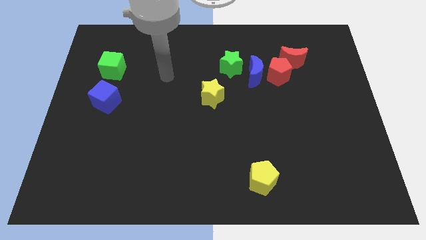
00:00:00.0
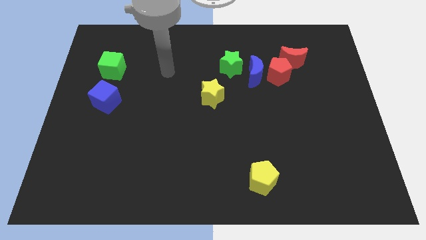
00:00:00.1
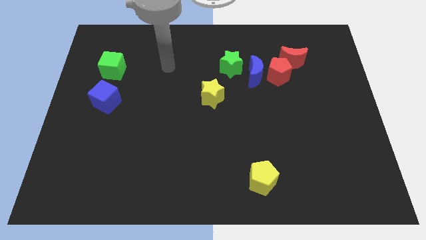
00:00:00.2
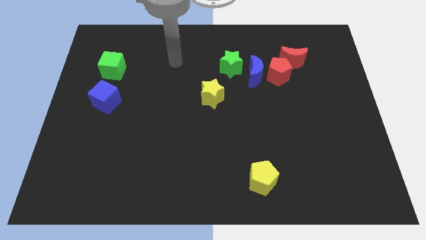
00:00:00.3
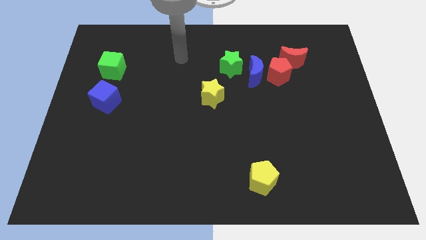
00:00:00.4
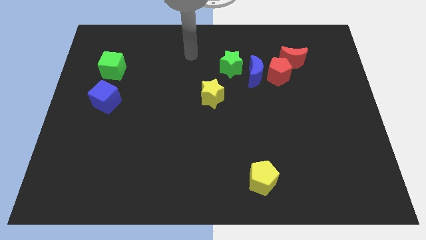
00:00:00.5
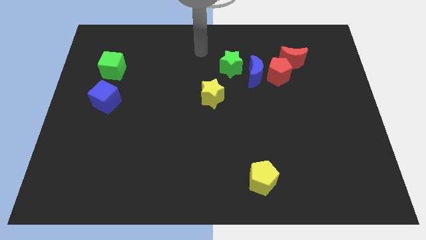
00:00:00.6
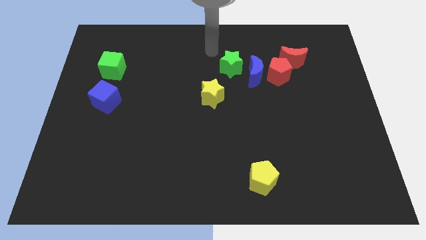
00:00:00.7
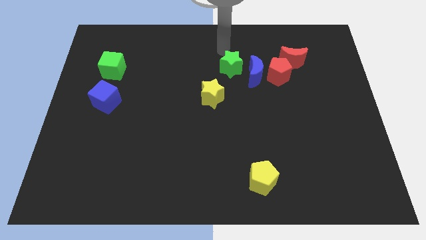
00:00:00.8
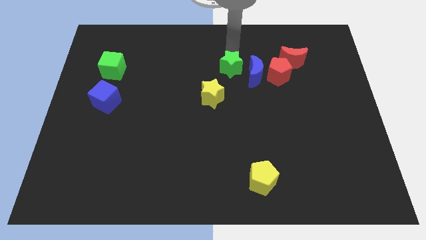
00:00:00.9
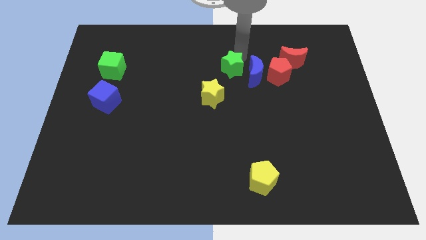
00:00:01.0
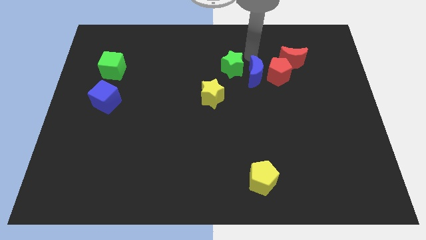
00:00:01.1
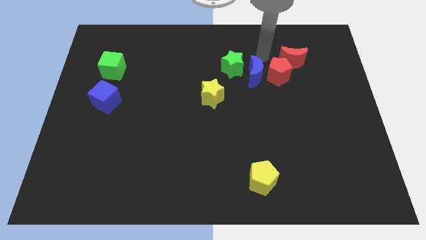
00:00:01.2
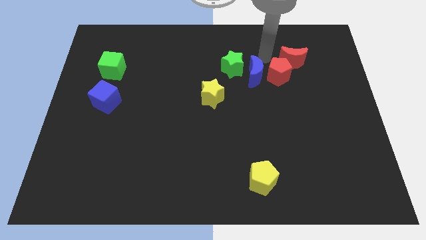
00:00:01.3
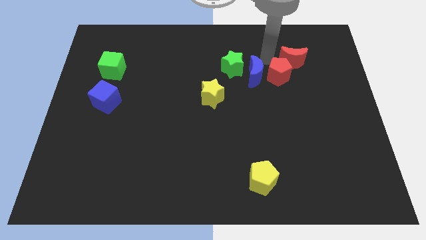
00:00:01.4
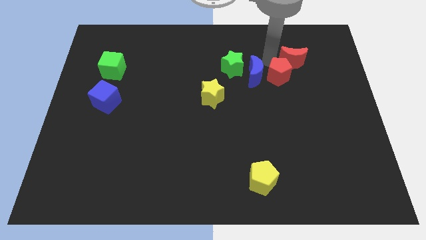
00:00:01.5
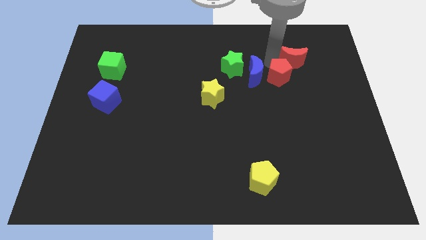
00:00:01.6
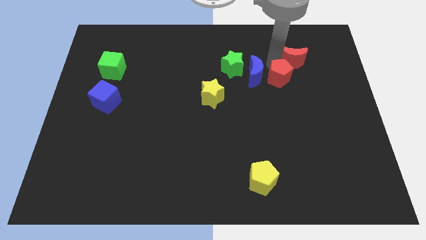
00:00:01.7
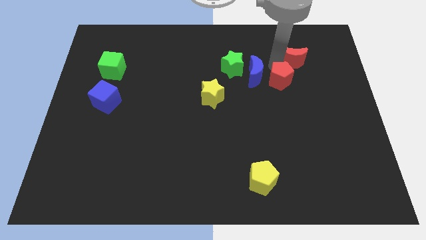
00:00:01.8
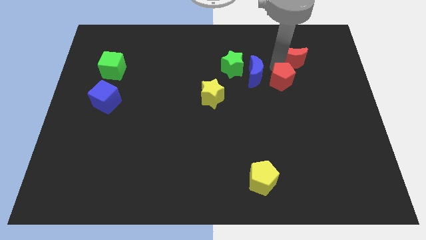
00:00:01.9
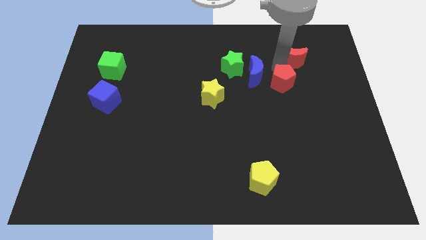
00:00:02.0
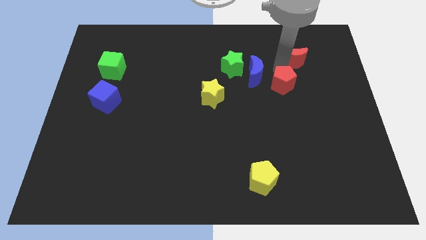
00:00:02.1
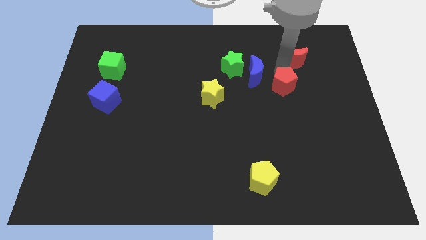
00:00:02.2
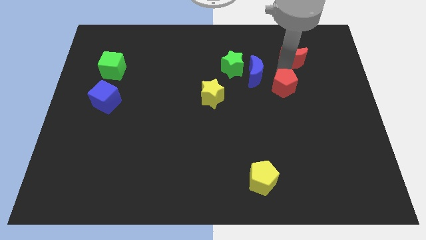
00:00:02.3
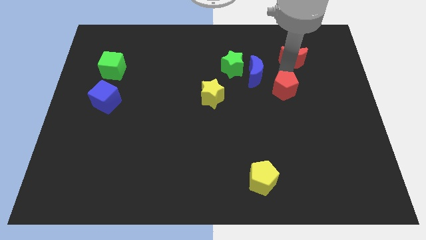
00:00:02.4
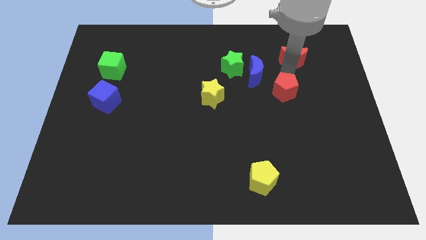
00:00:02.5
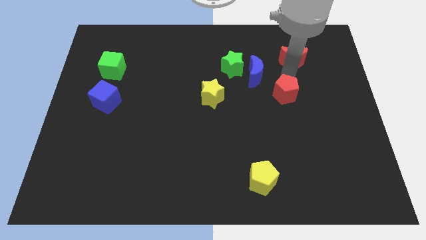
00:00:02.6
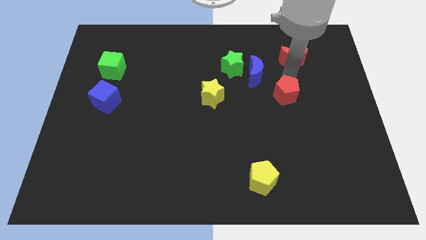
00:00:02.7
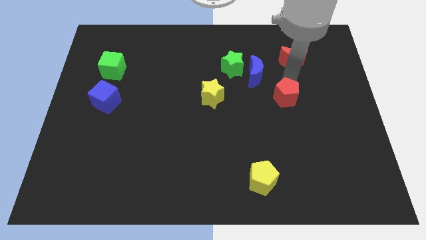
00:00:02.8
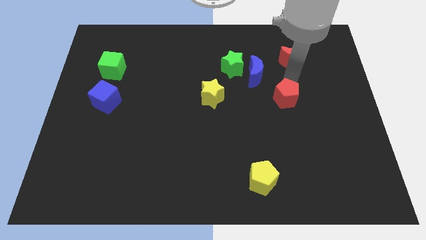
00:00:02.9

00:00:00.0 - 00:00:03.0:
pull the red pentagon apart from the blue moon and red moon

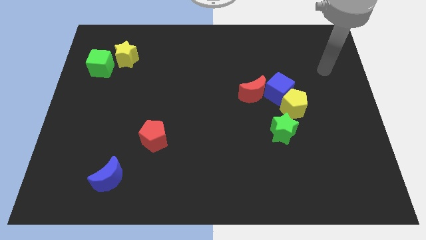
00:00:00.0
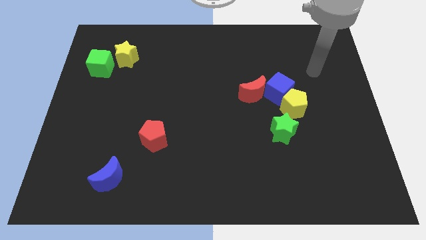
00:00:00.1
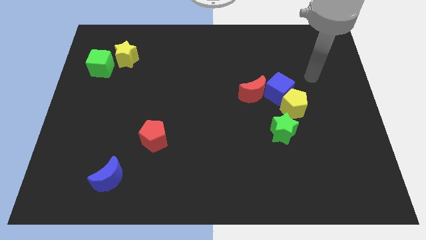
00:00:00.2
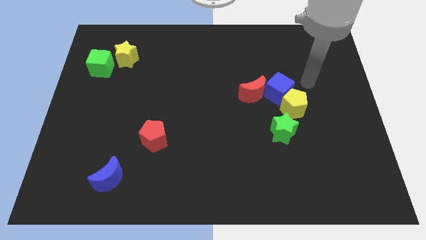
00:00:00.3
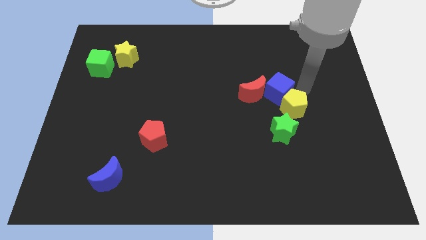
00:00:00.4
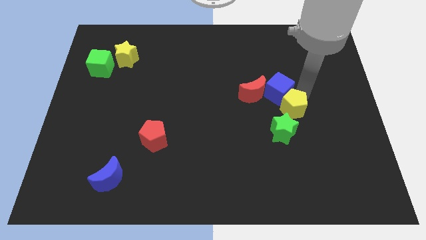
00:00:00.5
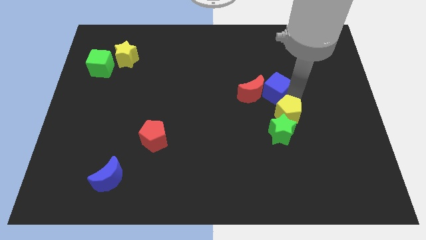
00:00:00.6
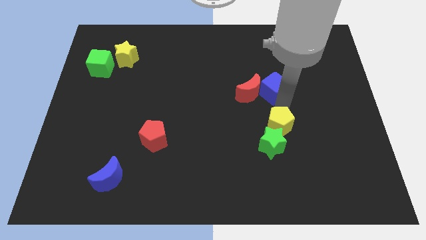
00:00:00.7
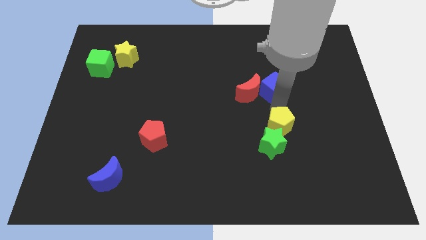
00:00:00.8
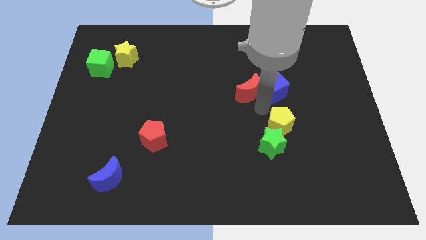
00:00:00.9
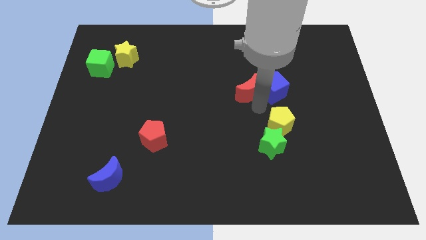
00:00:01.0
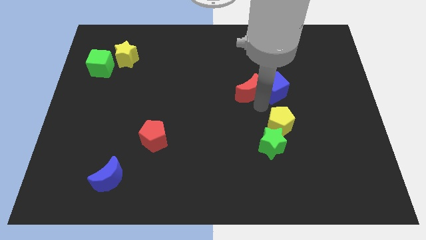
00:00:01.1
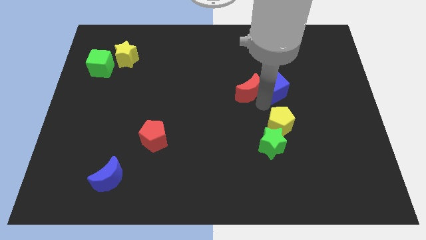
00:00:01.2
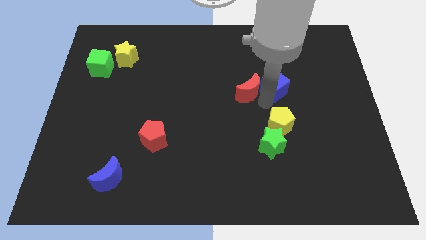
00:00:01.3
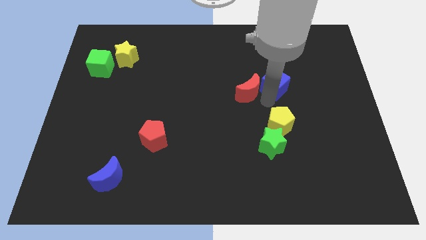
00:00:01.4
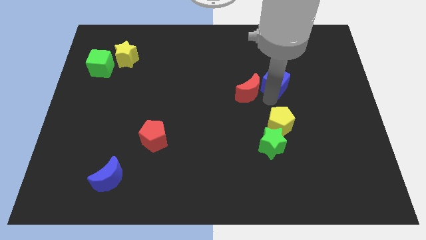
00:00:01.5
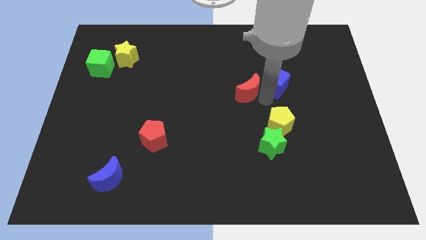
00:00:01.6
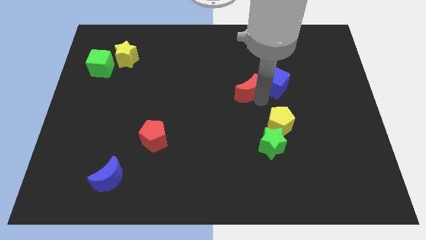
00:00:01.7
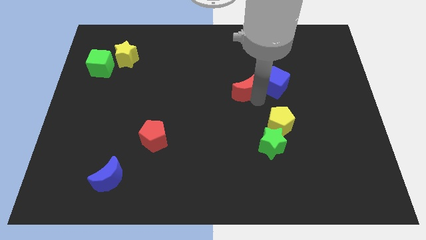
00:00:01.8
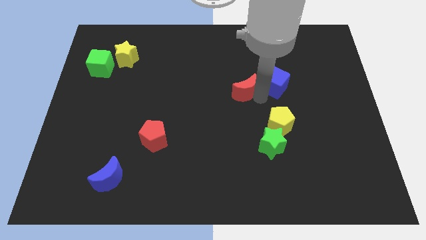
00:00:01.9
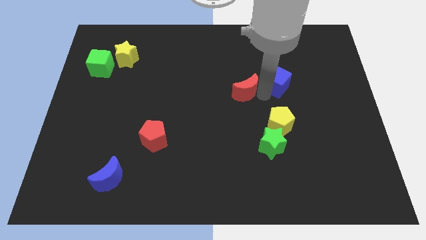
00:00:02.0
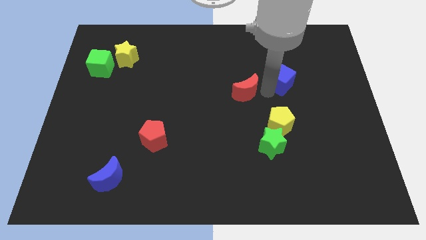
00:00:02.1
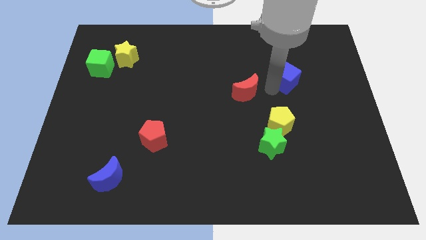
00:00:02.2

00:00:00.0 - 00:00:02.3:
pull the blue cube apart from the yellow pentagon and red moon

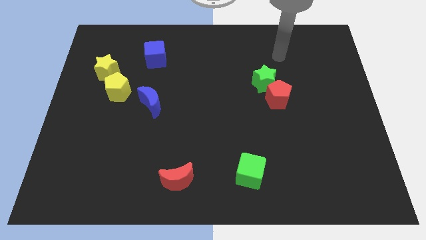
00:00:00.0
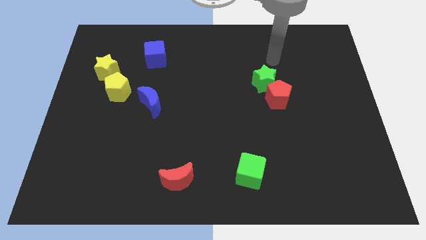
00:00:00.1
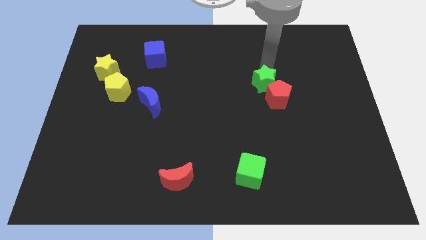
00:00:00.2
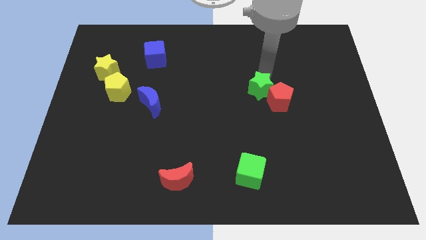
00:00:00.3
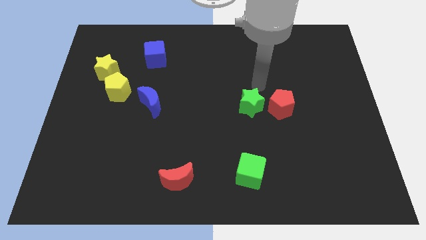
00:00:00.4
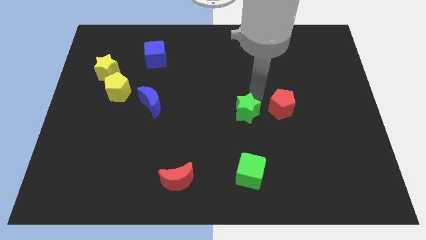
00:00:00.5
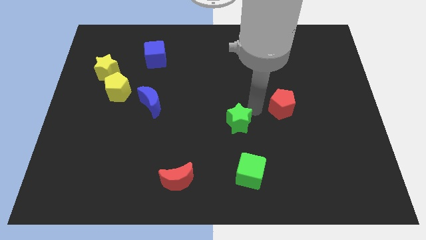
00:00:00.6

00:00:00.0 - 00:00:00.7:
pull the red pentagon apart from the green star

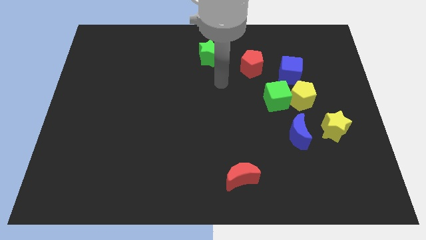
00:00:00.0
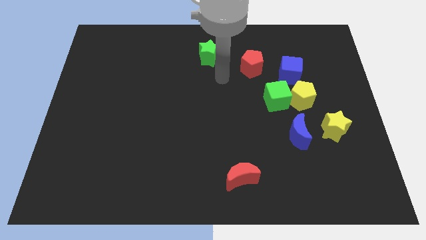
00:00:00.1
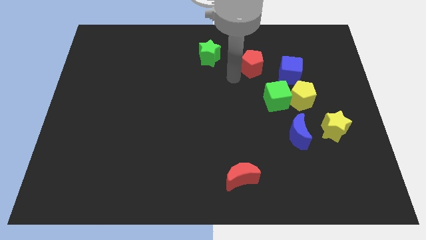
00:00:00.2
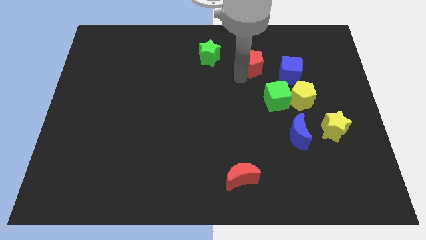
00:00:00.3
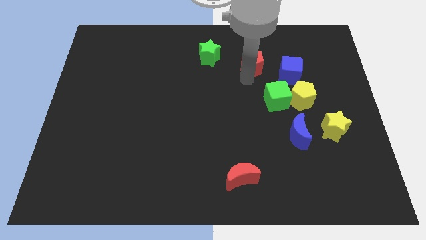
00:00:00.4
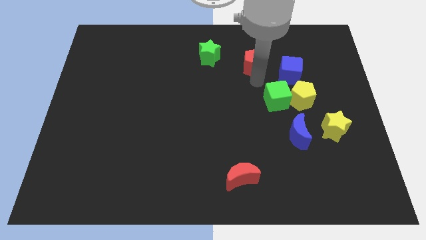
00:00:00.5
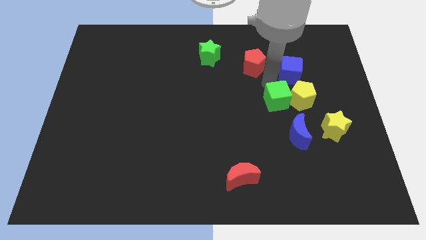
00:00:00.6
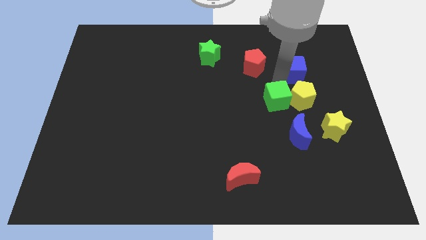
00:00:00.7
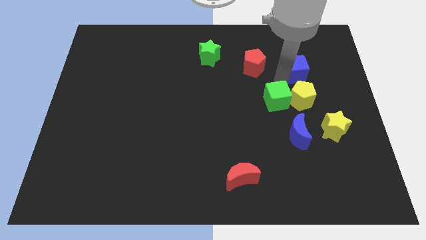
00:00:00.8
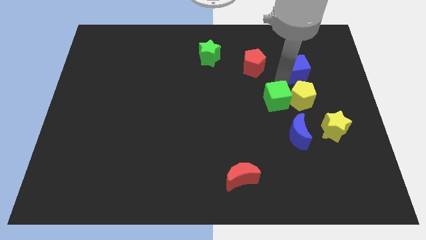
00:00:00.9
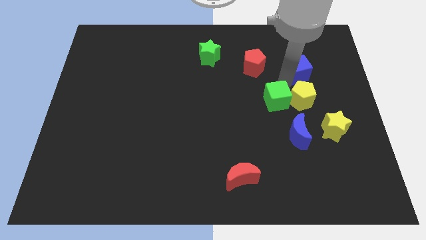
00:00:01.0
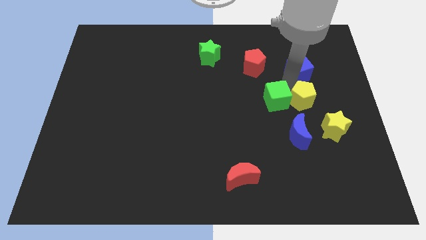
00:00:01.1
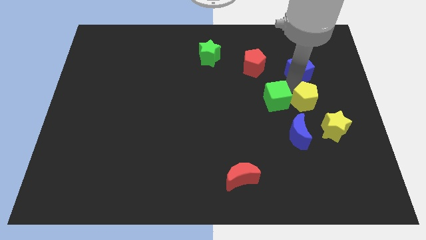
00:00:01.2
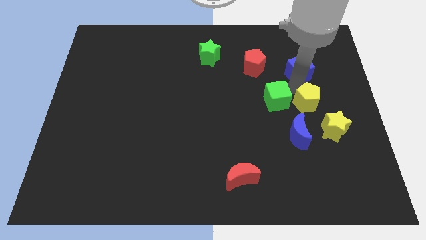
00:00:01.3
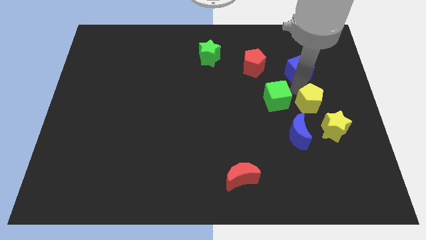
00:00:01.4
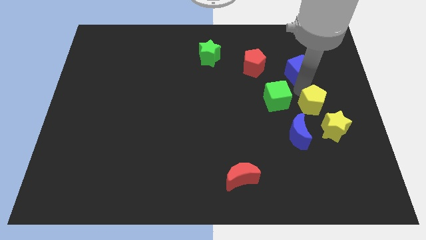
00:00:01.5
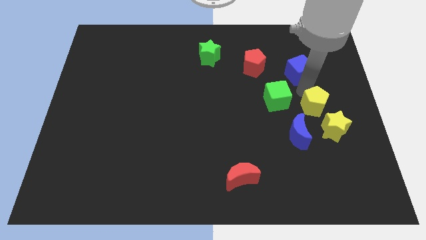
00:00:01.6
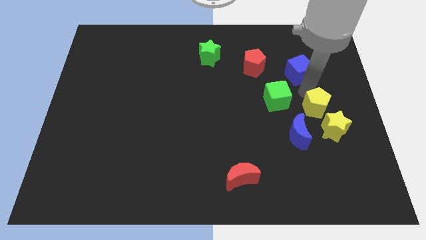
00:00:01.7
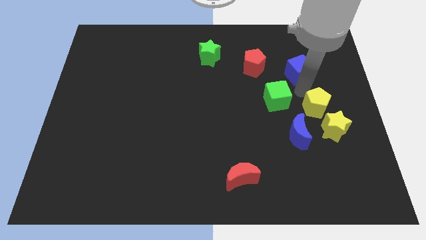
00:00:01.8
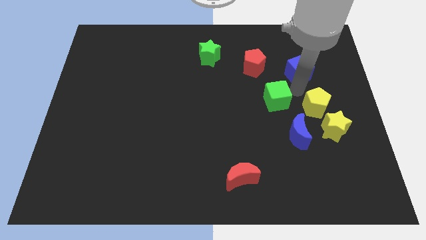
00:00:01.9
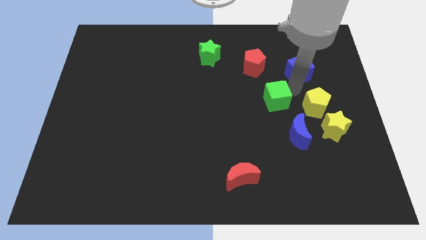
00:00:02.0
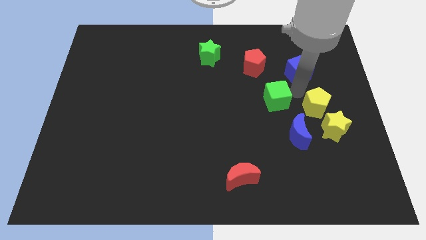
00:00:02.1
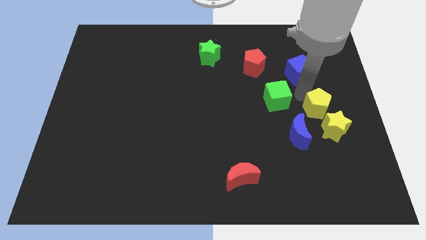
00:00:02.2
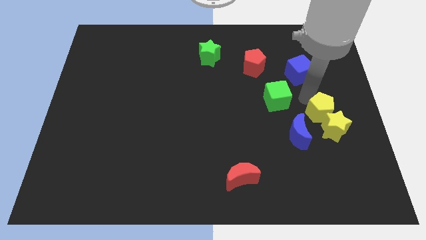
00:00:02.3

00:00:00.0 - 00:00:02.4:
move the yellow pentagon away from the green cube and blue cube

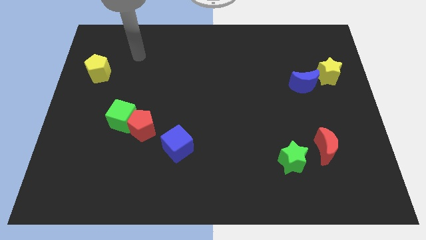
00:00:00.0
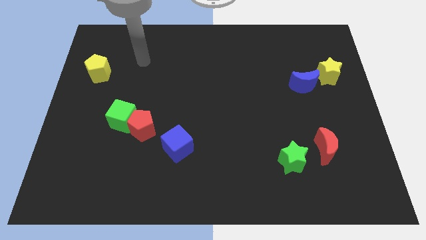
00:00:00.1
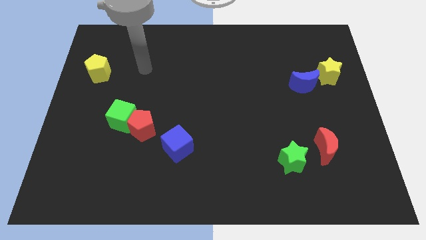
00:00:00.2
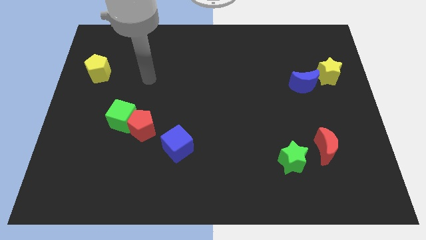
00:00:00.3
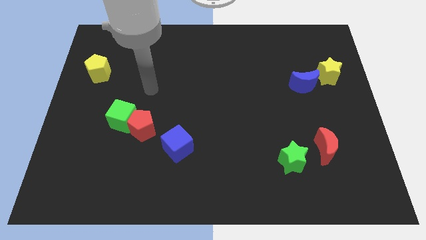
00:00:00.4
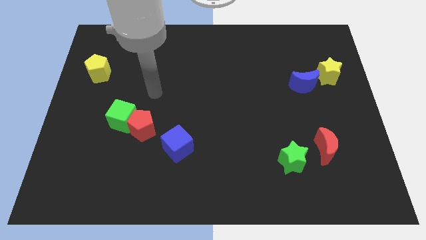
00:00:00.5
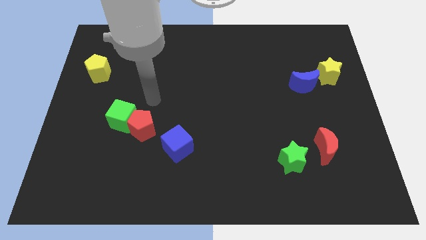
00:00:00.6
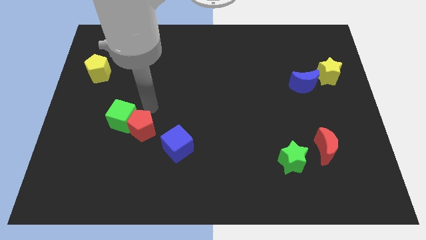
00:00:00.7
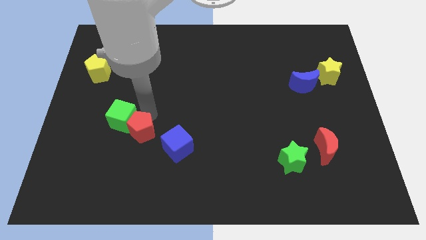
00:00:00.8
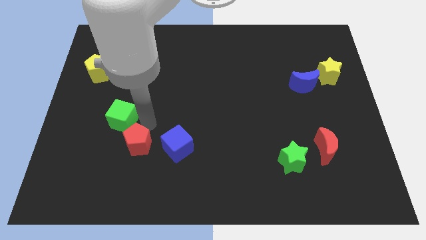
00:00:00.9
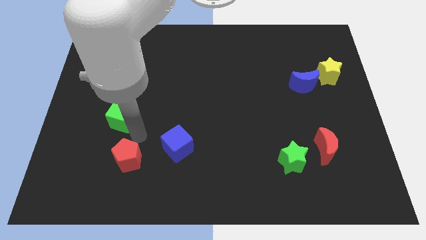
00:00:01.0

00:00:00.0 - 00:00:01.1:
move the green cube away from the red pentagon
